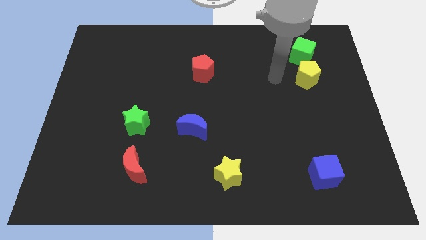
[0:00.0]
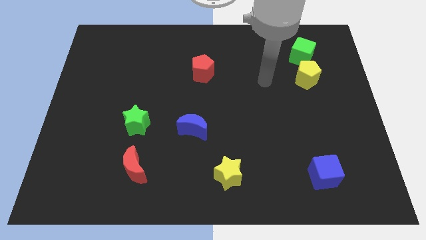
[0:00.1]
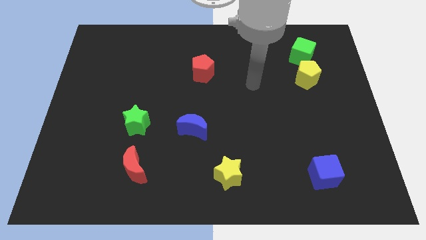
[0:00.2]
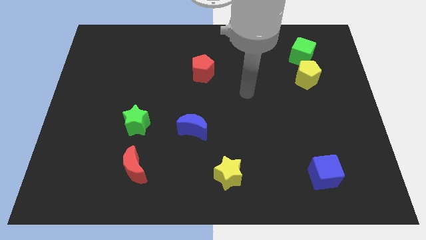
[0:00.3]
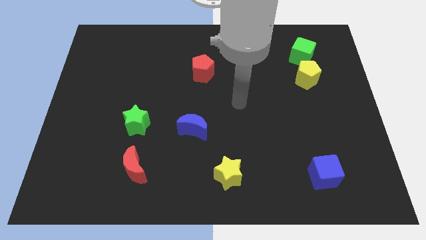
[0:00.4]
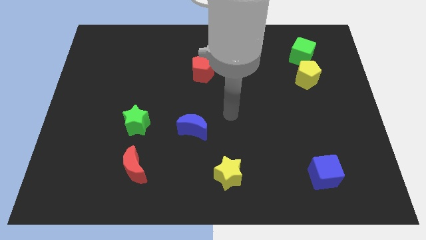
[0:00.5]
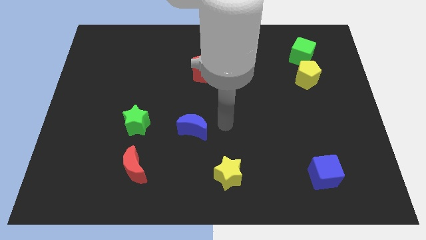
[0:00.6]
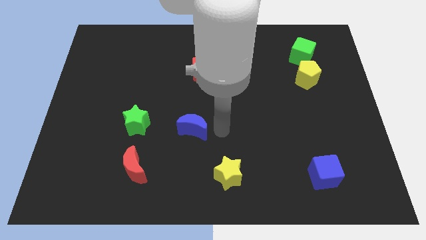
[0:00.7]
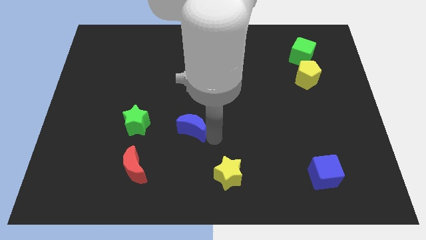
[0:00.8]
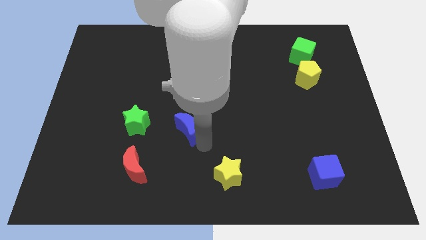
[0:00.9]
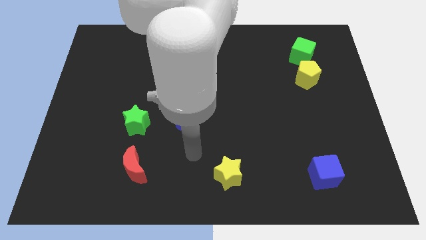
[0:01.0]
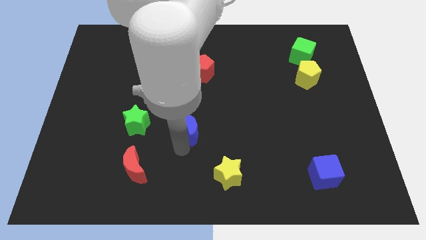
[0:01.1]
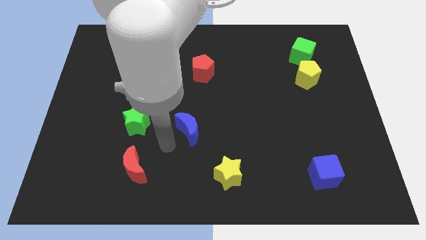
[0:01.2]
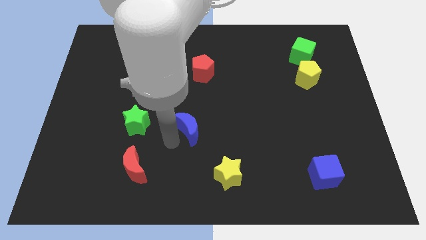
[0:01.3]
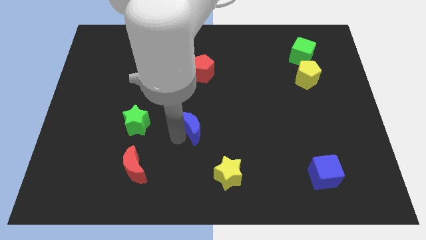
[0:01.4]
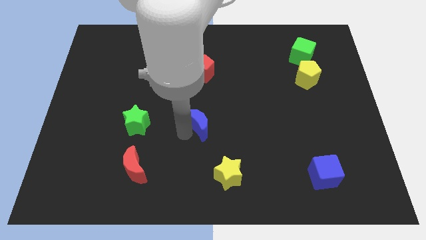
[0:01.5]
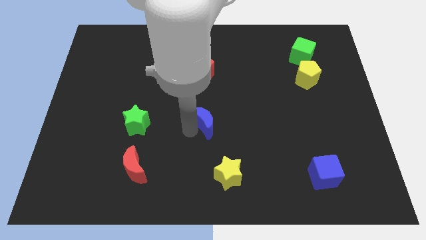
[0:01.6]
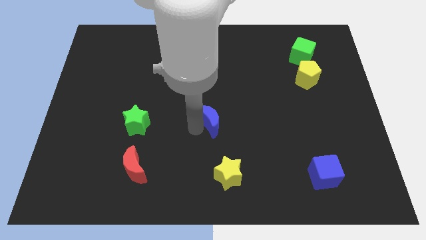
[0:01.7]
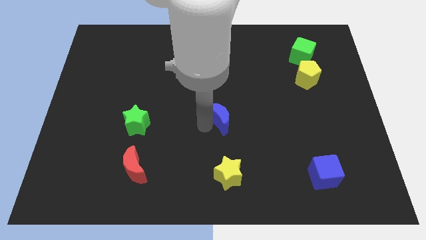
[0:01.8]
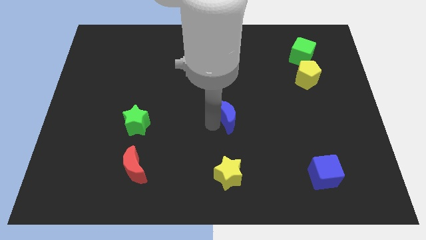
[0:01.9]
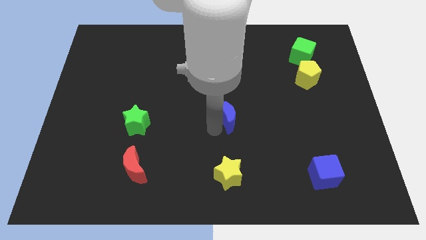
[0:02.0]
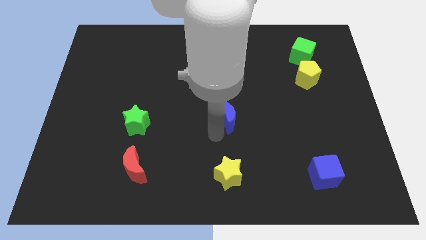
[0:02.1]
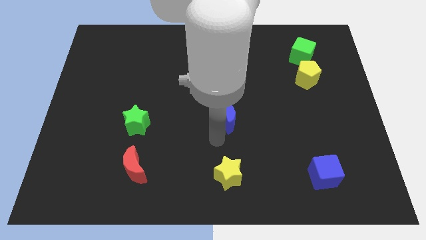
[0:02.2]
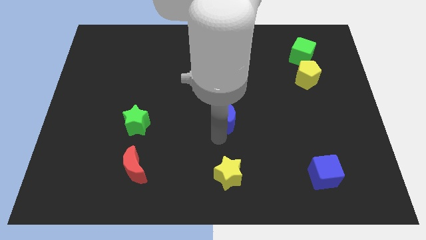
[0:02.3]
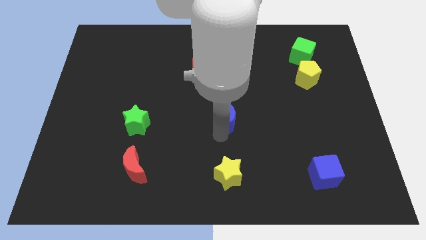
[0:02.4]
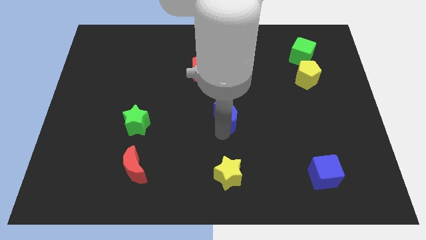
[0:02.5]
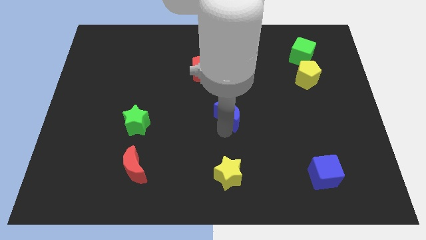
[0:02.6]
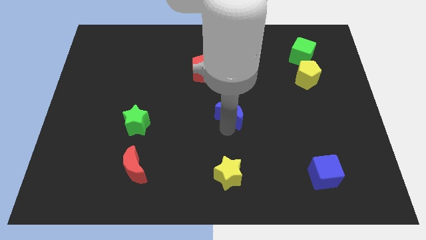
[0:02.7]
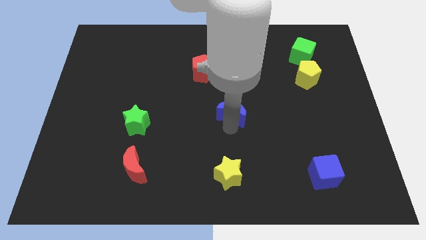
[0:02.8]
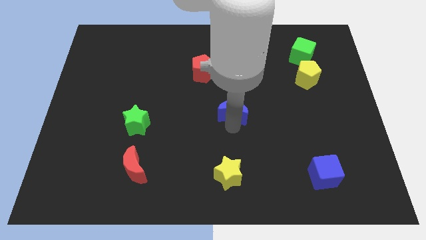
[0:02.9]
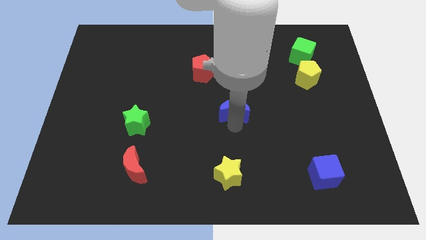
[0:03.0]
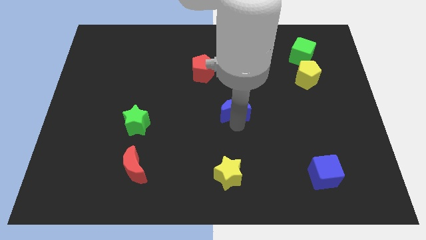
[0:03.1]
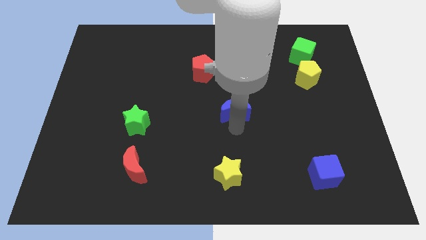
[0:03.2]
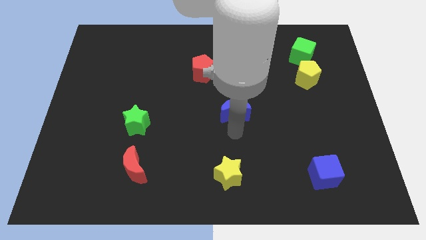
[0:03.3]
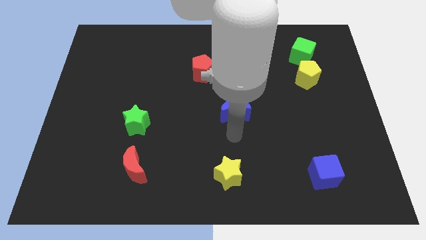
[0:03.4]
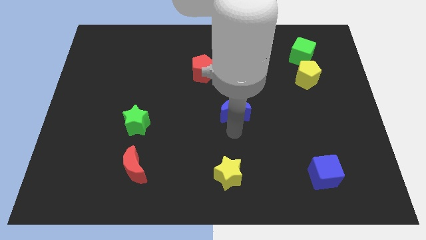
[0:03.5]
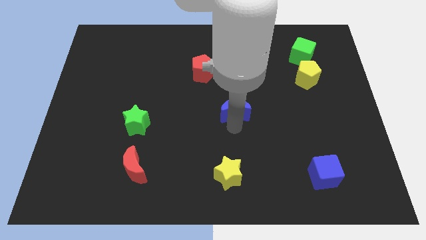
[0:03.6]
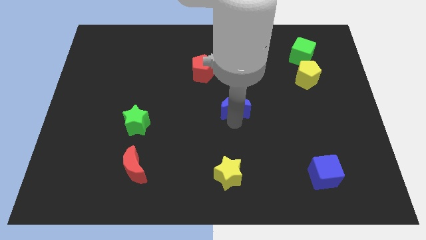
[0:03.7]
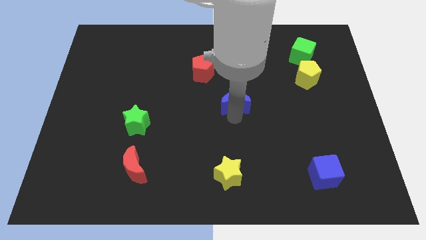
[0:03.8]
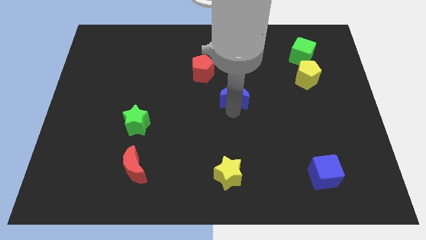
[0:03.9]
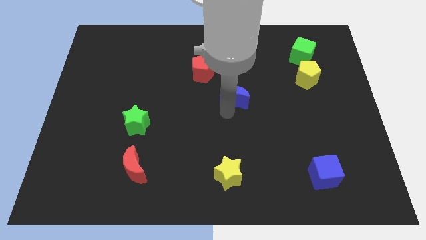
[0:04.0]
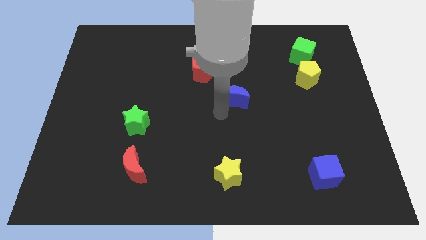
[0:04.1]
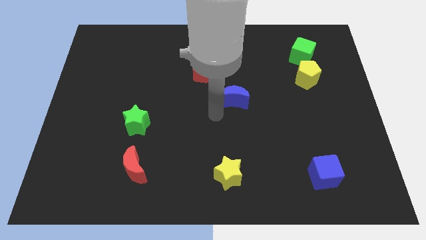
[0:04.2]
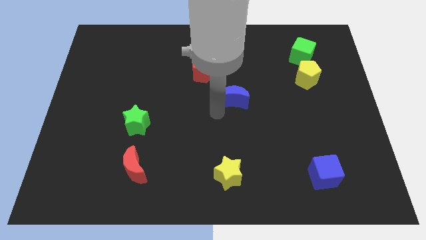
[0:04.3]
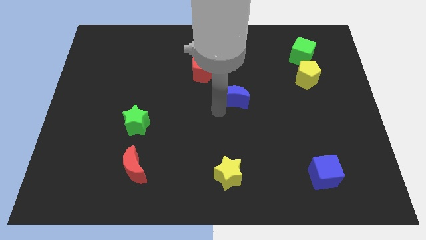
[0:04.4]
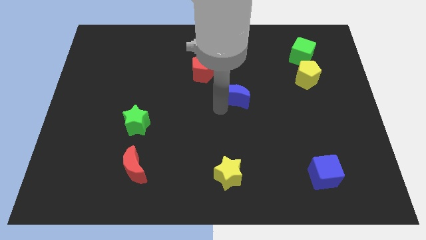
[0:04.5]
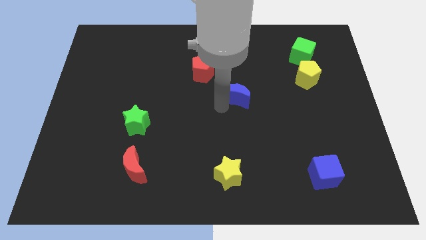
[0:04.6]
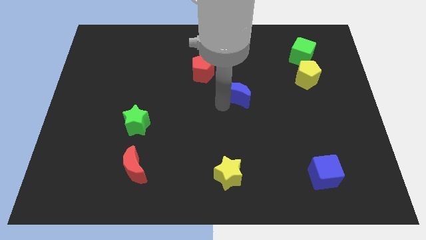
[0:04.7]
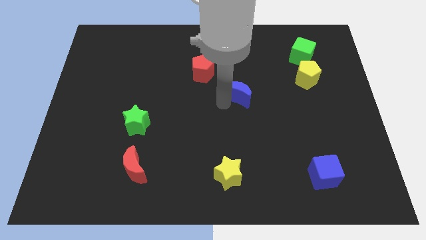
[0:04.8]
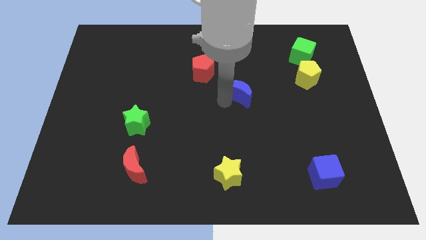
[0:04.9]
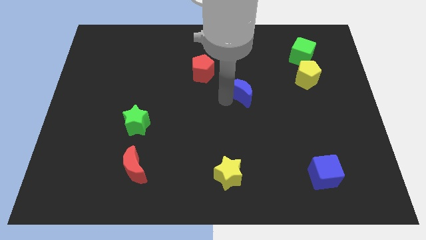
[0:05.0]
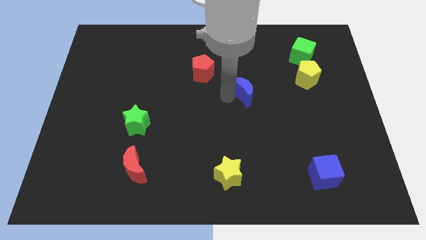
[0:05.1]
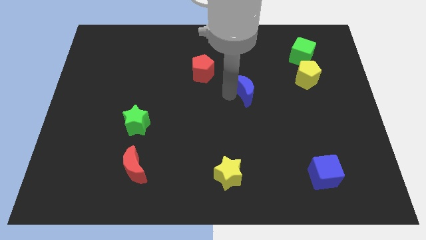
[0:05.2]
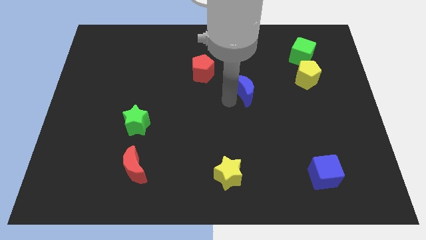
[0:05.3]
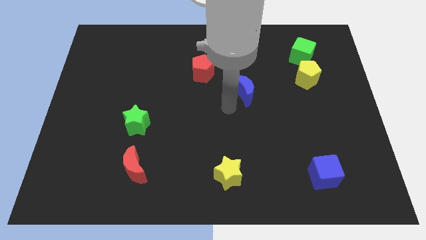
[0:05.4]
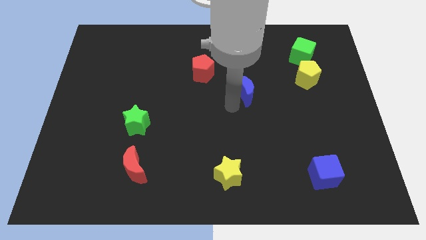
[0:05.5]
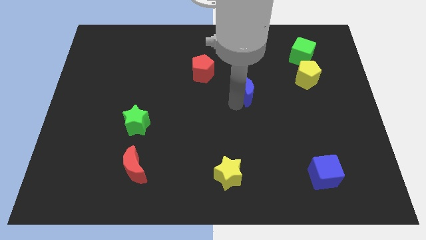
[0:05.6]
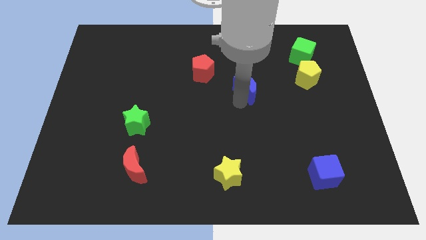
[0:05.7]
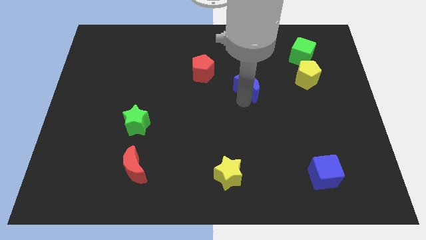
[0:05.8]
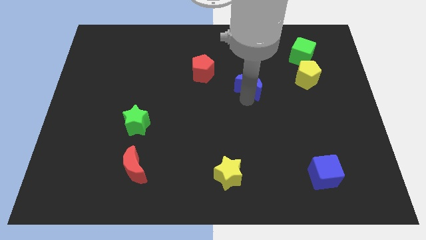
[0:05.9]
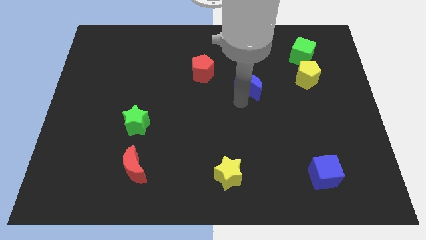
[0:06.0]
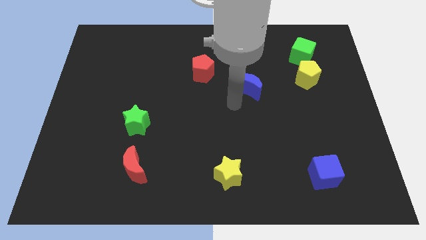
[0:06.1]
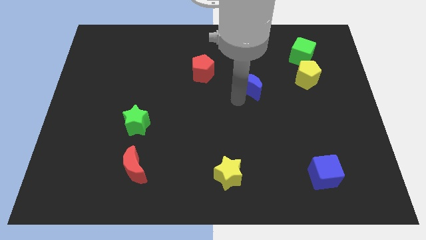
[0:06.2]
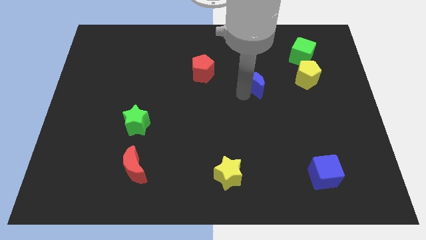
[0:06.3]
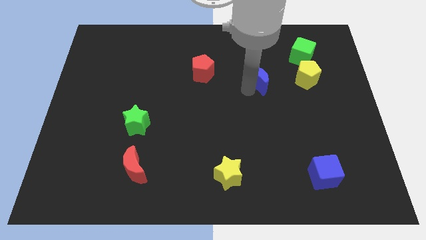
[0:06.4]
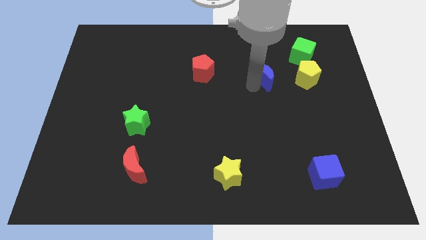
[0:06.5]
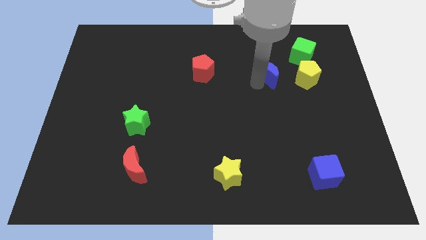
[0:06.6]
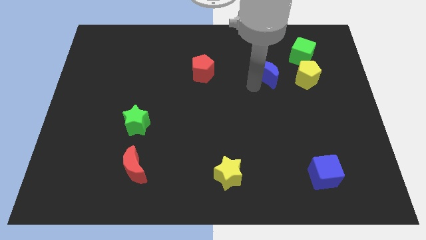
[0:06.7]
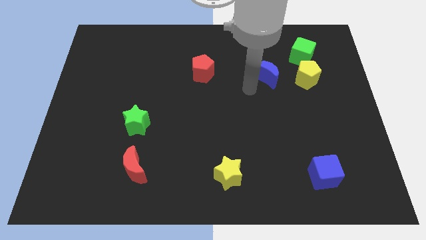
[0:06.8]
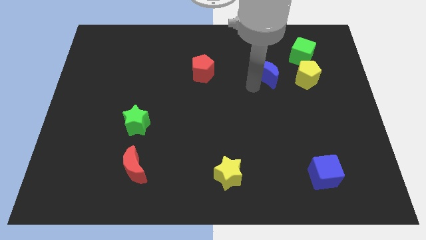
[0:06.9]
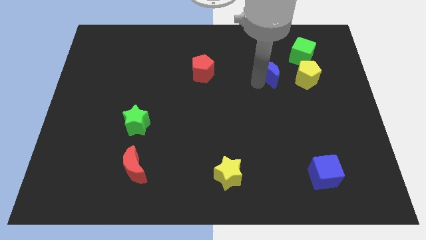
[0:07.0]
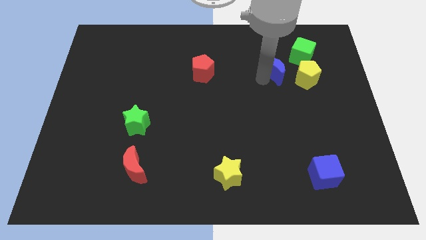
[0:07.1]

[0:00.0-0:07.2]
move the blue moon diagonally up and to the left of the yellow pentagon
